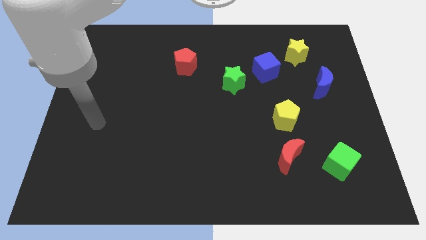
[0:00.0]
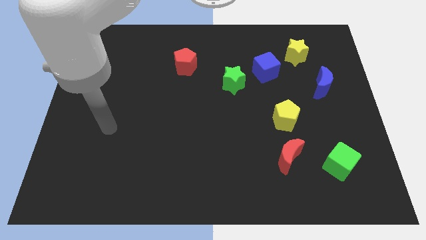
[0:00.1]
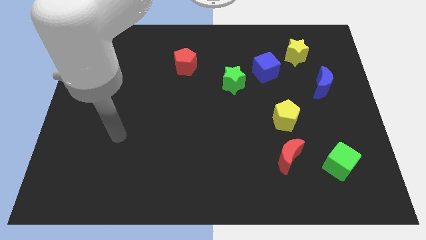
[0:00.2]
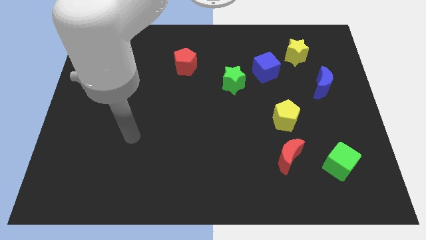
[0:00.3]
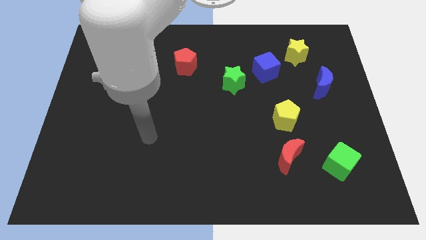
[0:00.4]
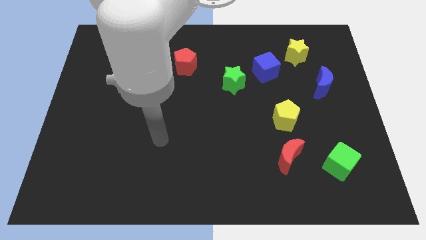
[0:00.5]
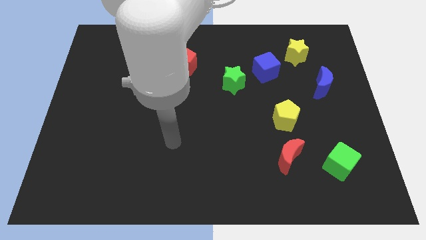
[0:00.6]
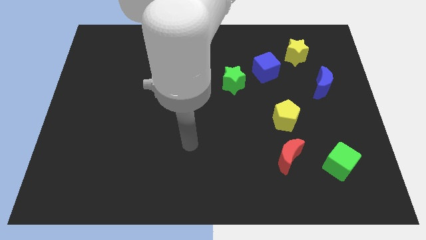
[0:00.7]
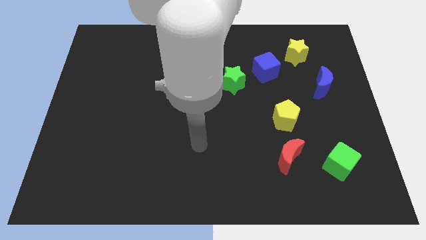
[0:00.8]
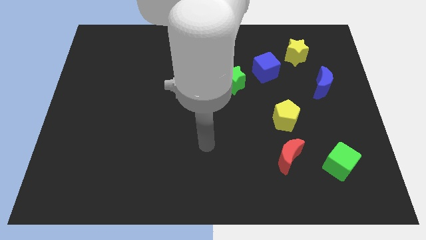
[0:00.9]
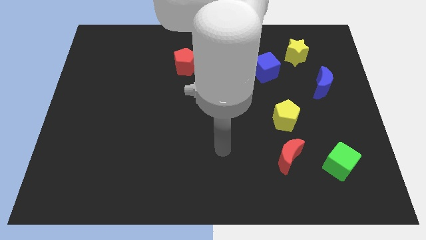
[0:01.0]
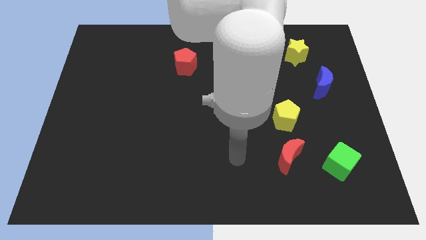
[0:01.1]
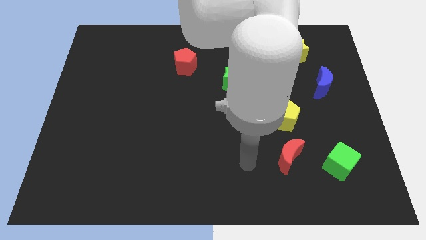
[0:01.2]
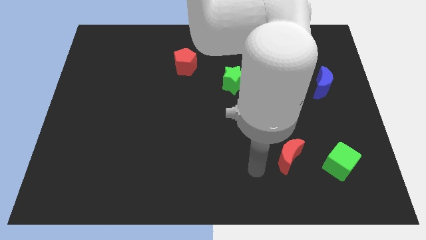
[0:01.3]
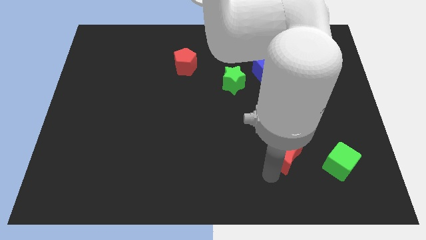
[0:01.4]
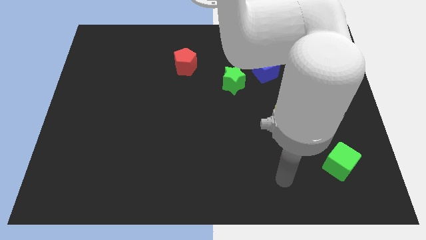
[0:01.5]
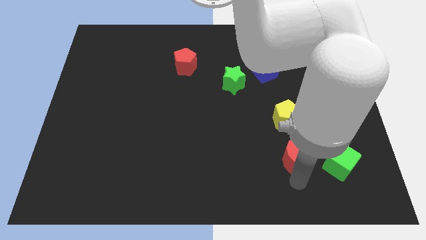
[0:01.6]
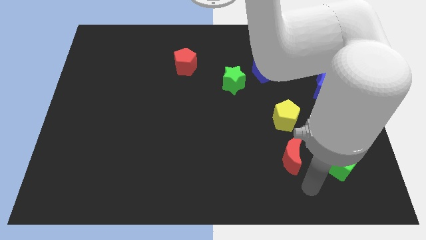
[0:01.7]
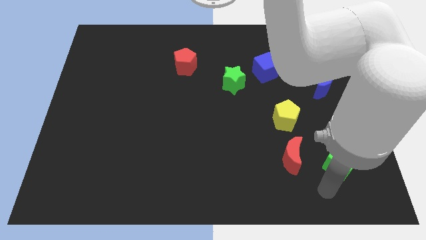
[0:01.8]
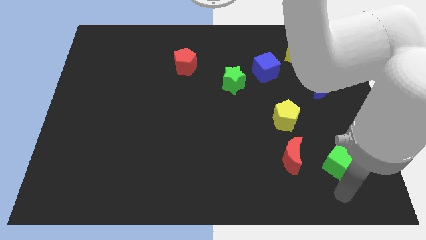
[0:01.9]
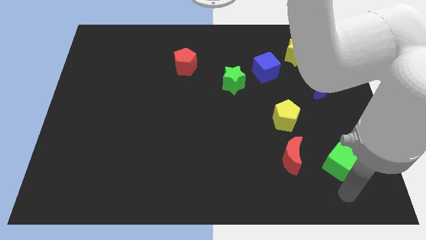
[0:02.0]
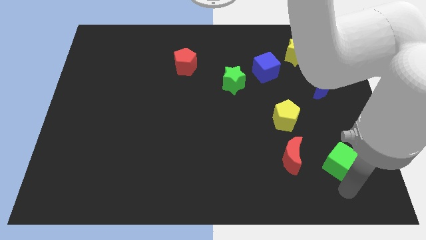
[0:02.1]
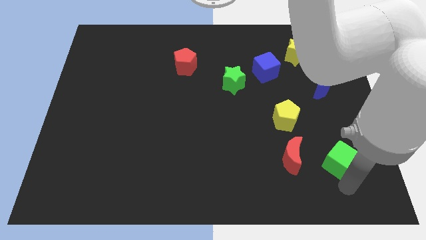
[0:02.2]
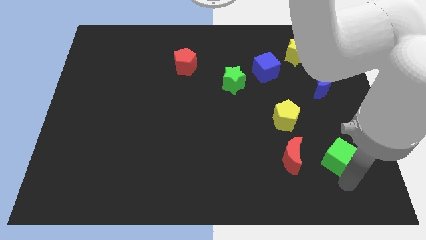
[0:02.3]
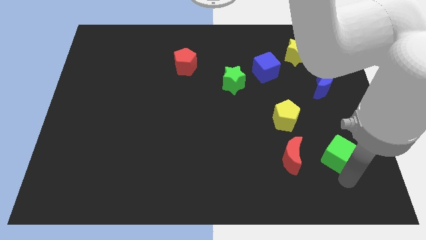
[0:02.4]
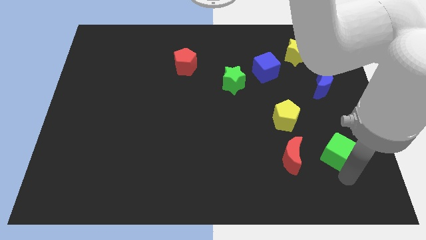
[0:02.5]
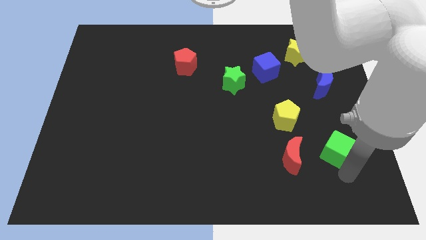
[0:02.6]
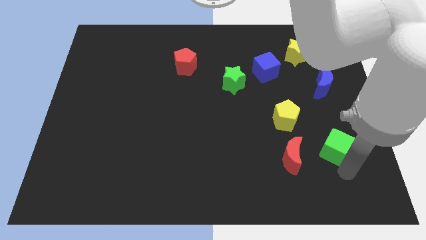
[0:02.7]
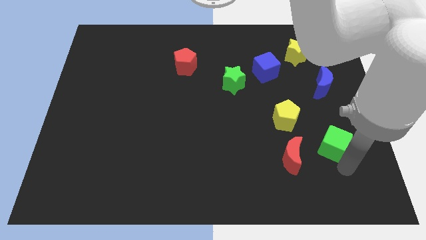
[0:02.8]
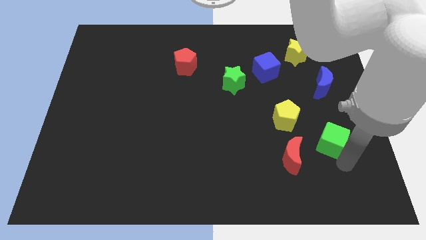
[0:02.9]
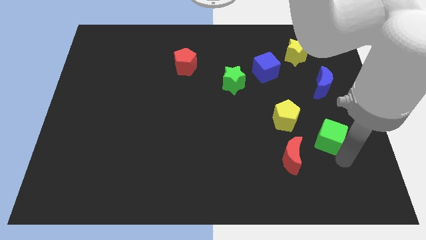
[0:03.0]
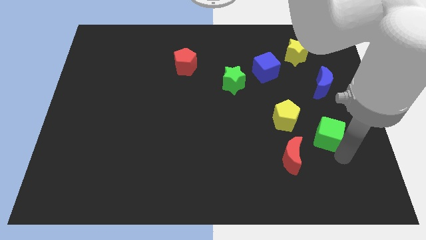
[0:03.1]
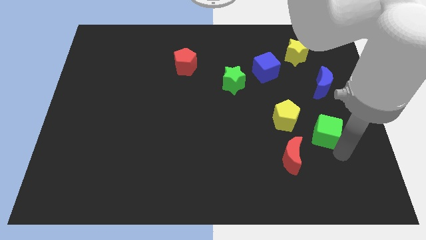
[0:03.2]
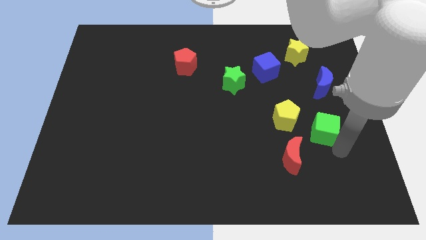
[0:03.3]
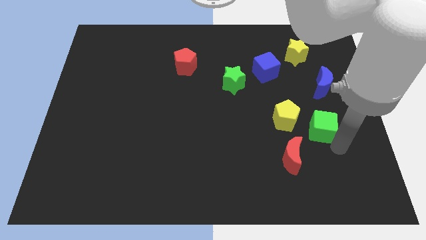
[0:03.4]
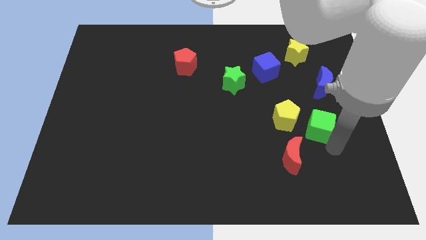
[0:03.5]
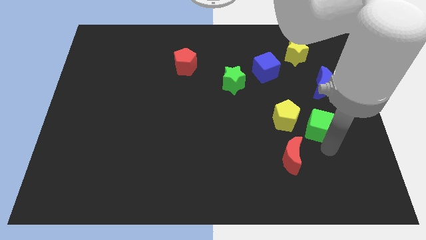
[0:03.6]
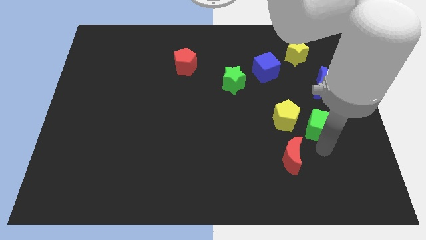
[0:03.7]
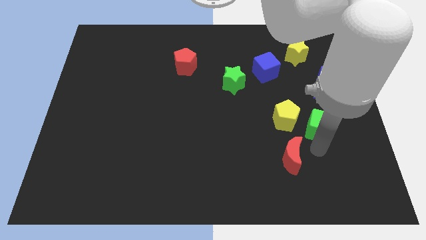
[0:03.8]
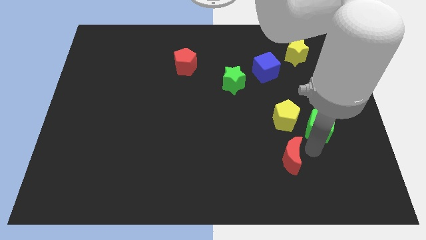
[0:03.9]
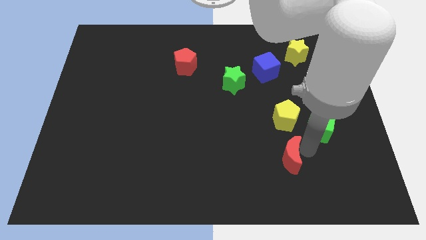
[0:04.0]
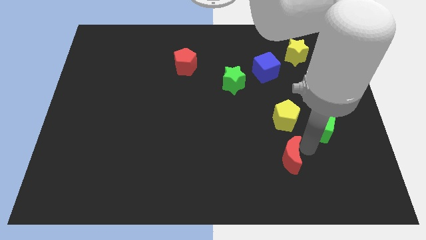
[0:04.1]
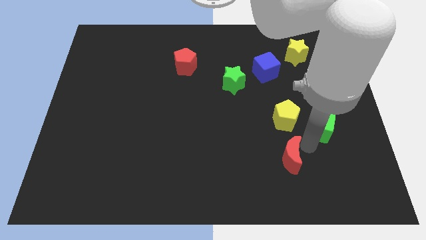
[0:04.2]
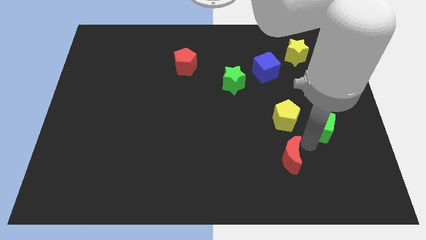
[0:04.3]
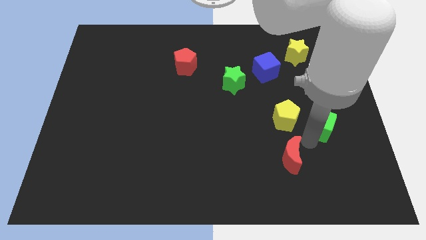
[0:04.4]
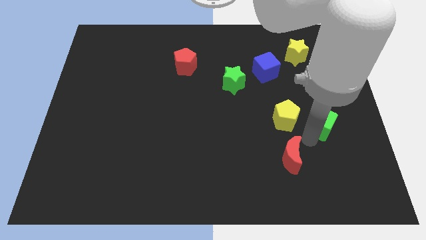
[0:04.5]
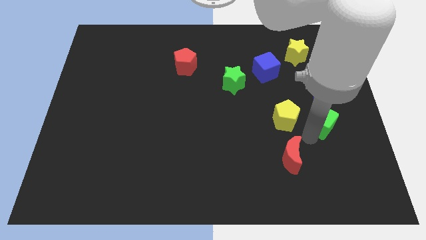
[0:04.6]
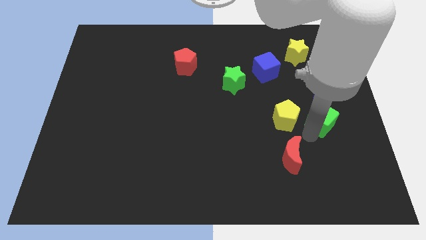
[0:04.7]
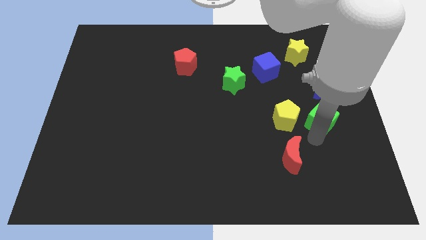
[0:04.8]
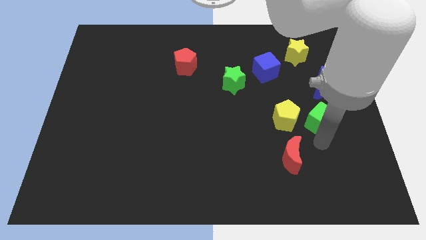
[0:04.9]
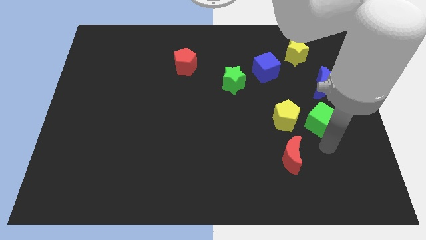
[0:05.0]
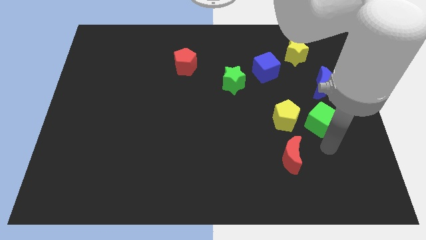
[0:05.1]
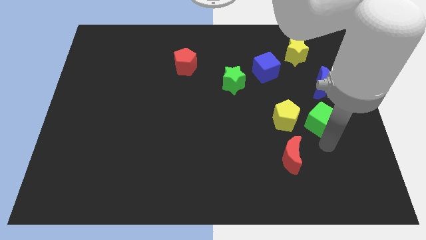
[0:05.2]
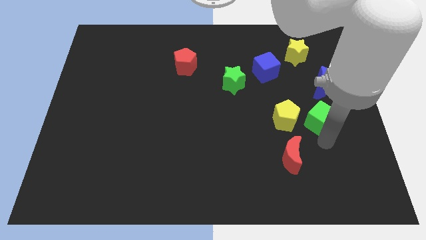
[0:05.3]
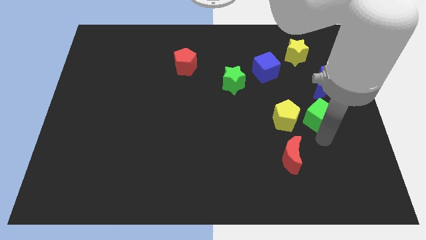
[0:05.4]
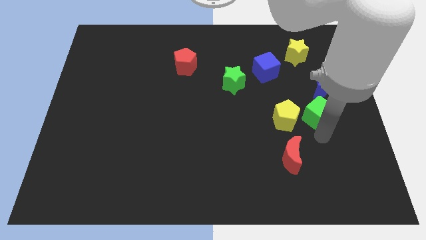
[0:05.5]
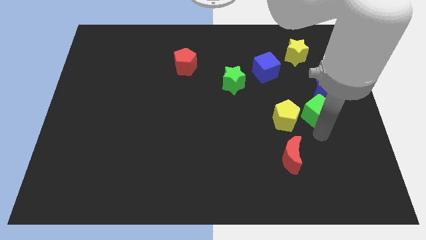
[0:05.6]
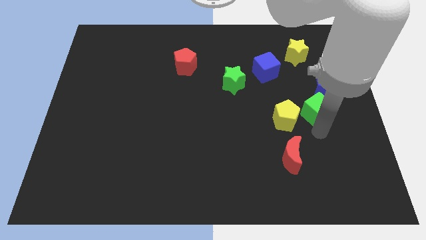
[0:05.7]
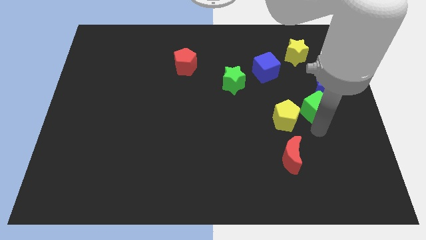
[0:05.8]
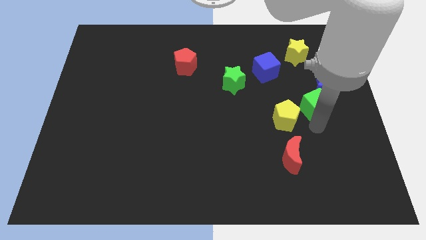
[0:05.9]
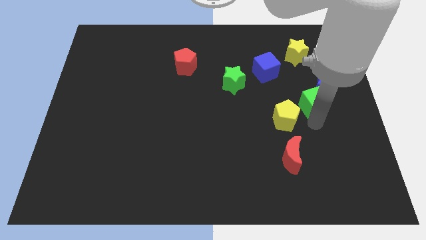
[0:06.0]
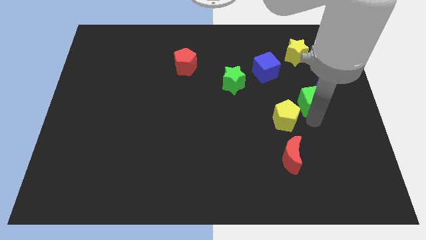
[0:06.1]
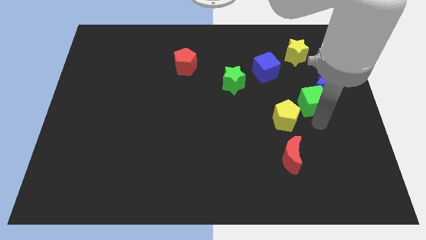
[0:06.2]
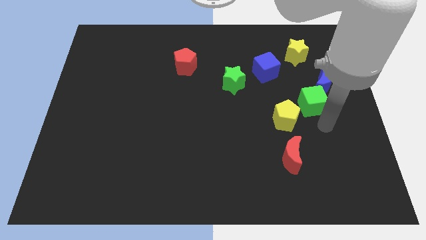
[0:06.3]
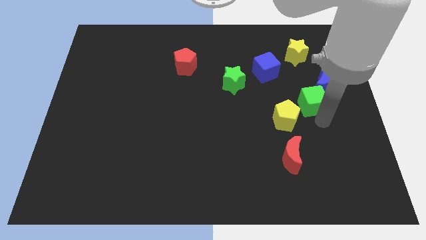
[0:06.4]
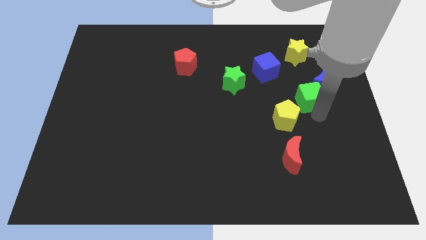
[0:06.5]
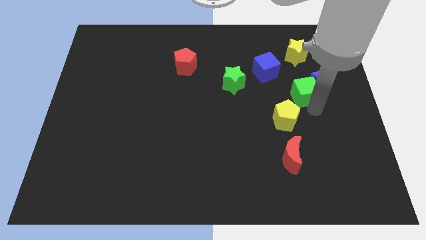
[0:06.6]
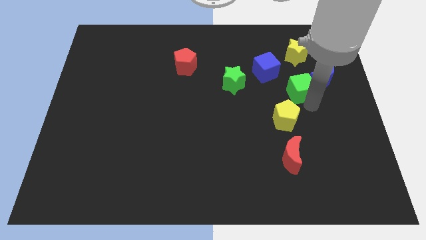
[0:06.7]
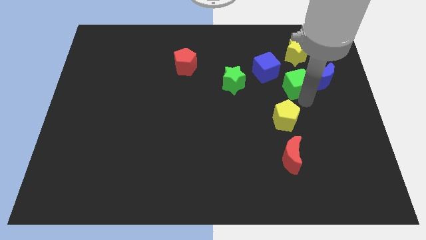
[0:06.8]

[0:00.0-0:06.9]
move the green cube upwards

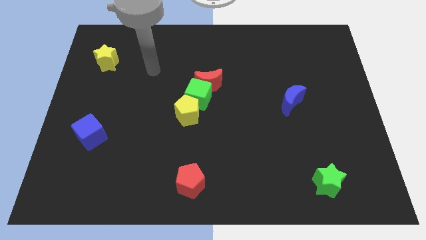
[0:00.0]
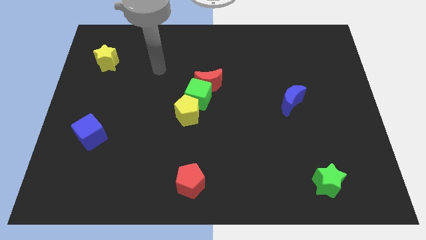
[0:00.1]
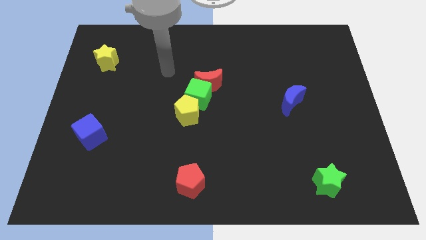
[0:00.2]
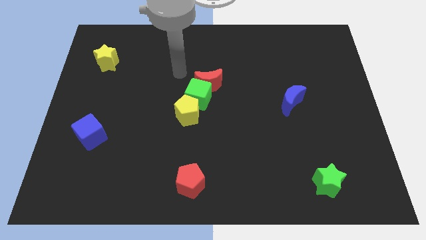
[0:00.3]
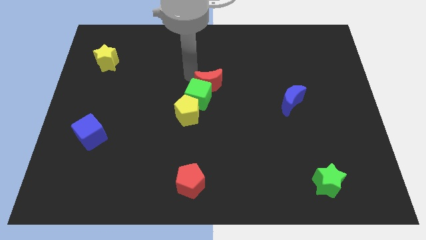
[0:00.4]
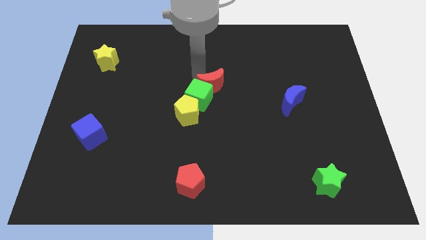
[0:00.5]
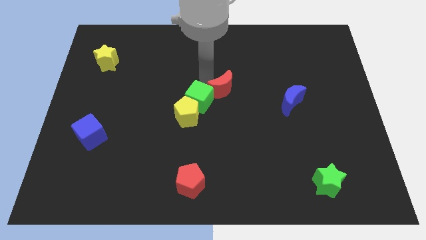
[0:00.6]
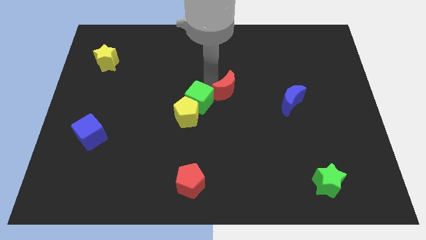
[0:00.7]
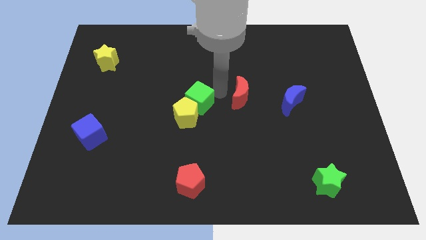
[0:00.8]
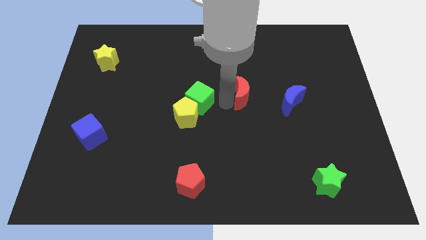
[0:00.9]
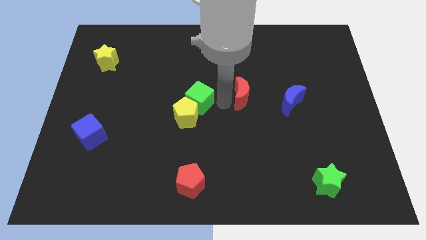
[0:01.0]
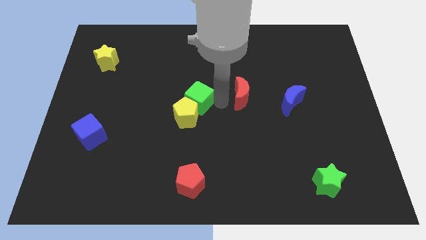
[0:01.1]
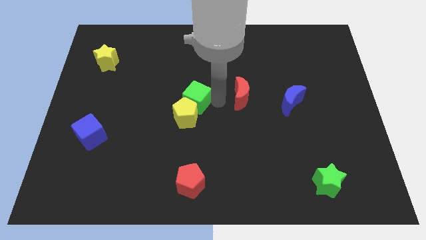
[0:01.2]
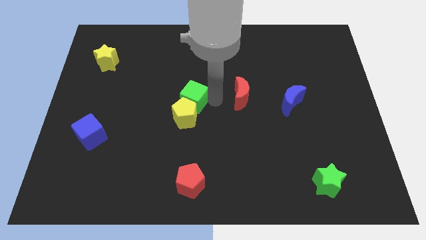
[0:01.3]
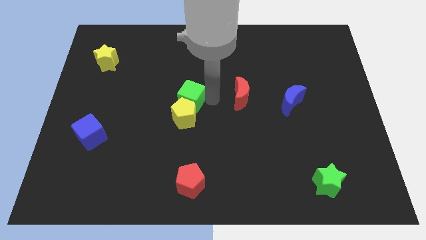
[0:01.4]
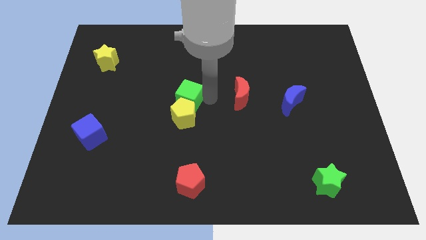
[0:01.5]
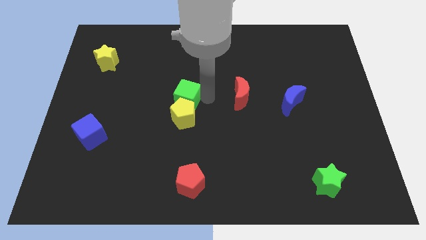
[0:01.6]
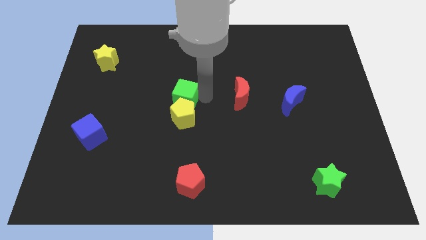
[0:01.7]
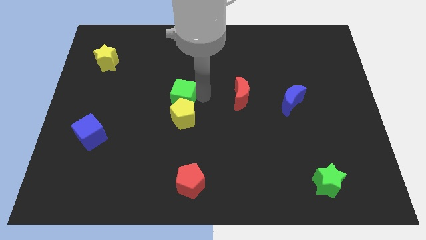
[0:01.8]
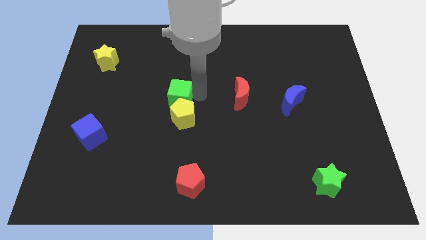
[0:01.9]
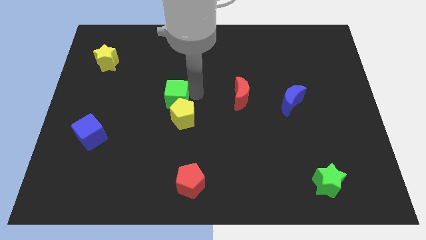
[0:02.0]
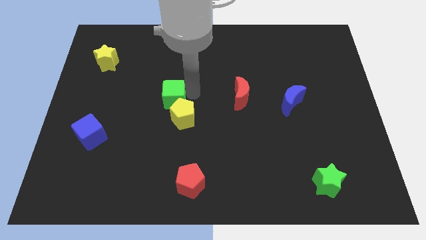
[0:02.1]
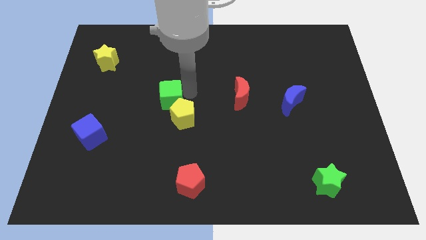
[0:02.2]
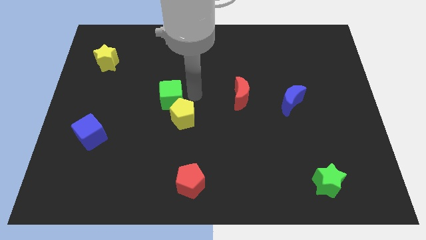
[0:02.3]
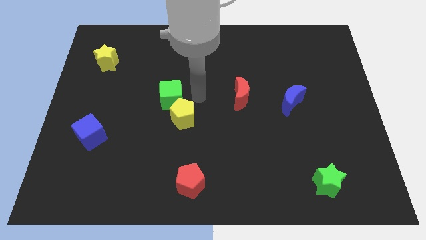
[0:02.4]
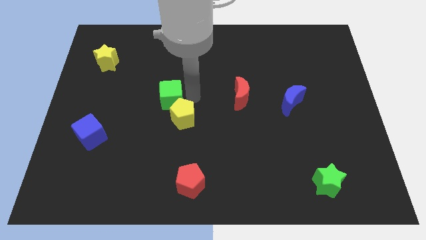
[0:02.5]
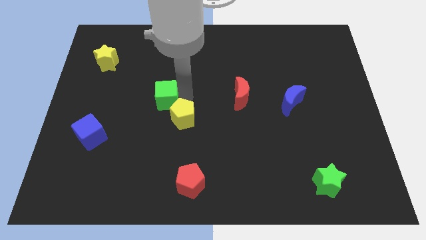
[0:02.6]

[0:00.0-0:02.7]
move the green cube somewhat left
